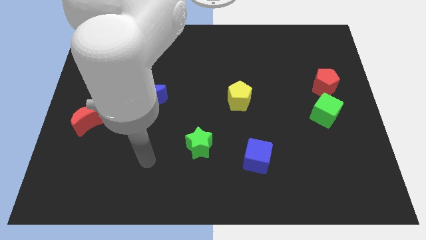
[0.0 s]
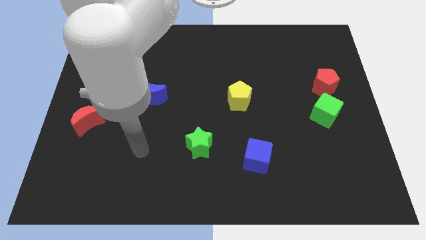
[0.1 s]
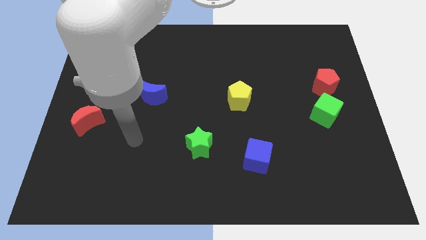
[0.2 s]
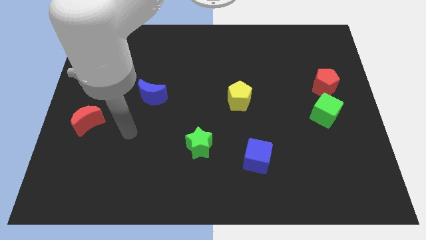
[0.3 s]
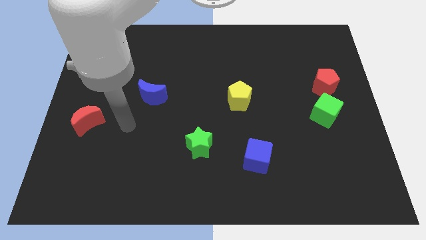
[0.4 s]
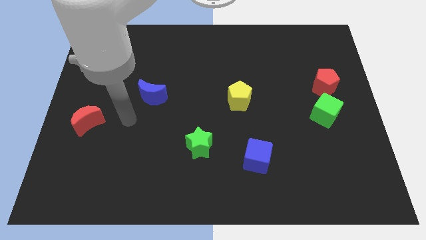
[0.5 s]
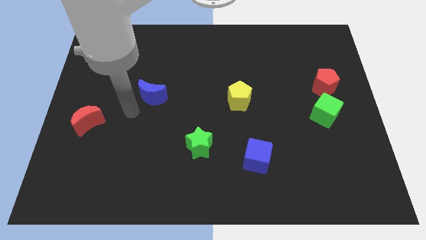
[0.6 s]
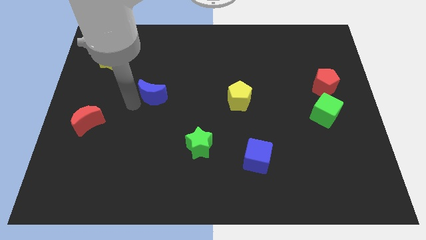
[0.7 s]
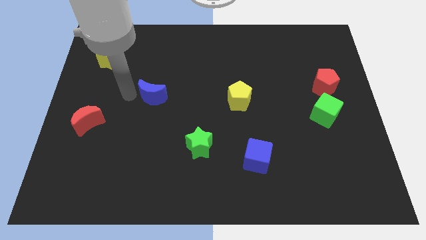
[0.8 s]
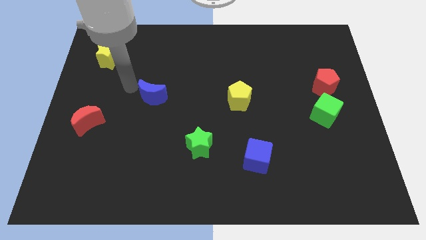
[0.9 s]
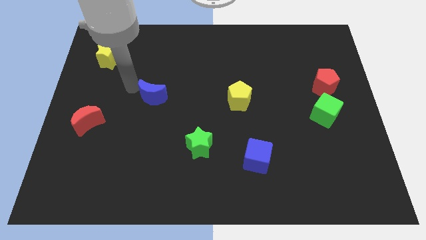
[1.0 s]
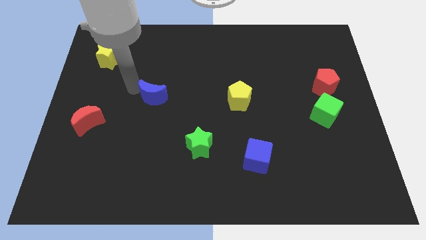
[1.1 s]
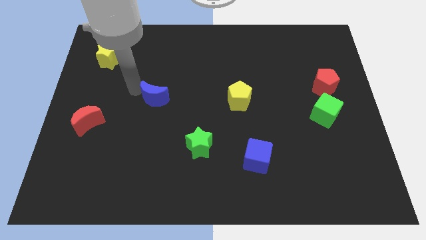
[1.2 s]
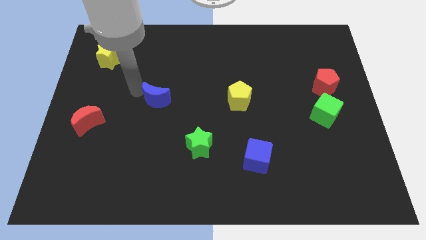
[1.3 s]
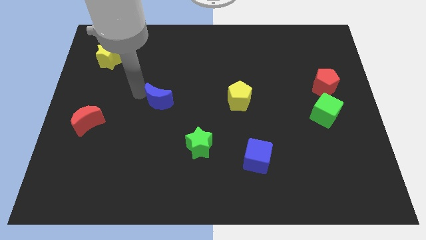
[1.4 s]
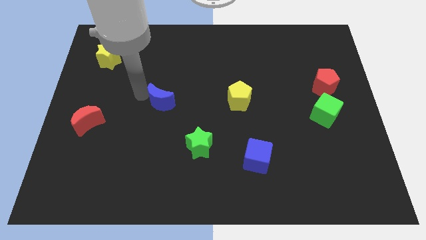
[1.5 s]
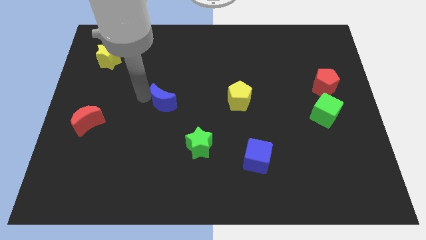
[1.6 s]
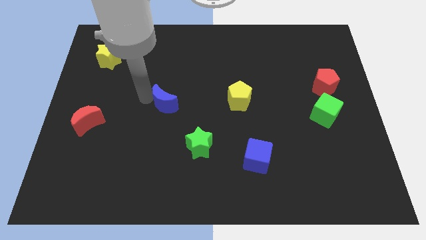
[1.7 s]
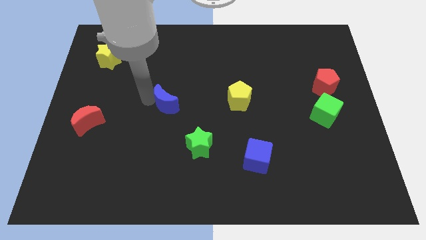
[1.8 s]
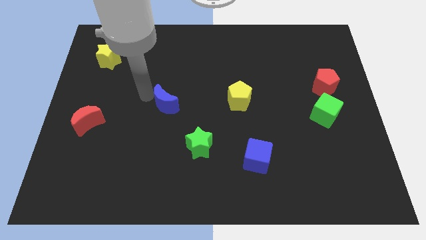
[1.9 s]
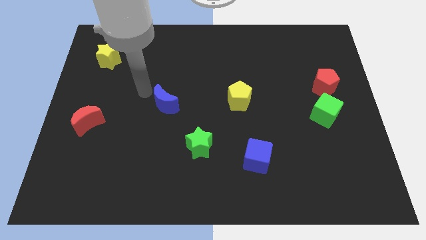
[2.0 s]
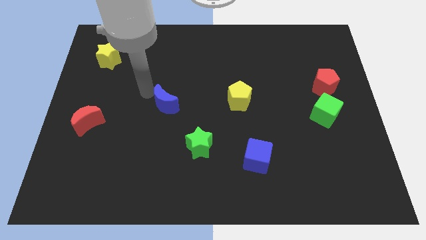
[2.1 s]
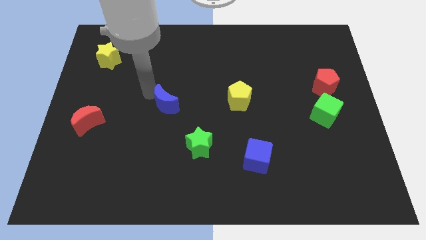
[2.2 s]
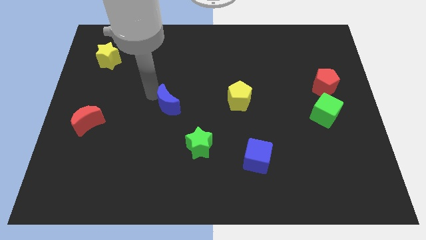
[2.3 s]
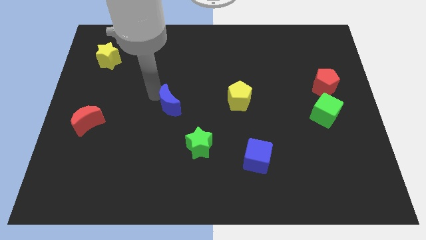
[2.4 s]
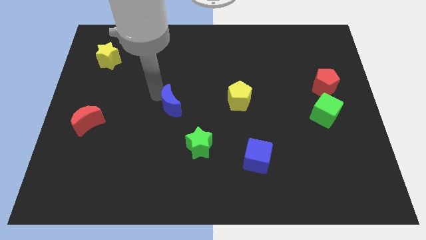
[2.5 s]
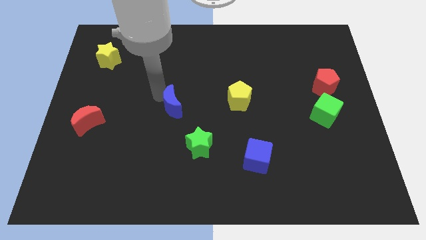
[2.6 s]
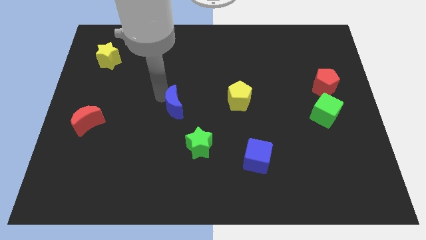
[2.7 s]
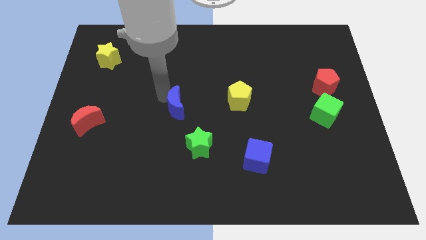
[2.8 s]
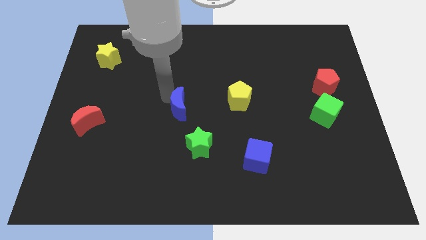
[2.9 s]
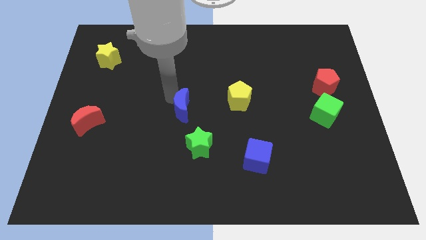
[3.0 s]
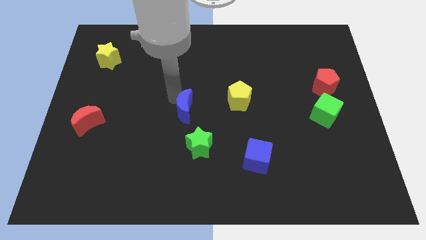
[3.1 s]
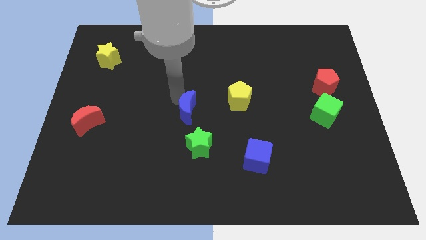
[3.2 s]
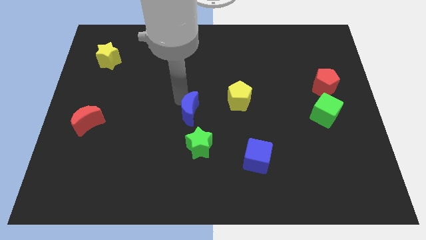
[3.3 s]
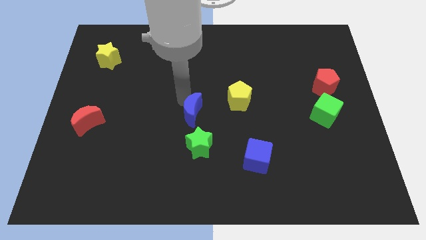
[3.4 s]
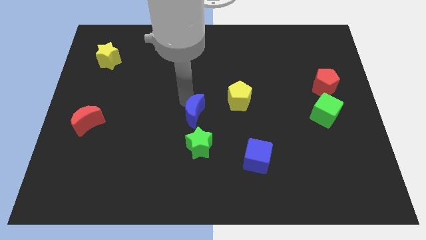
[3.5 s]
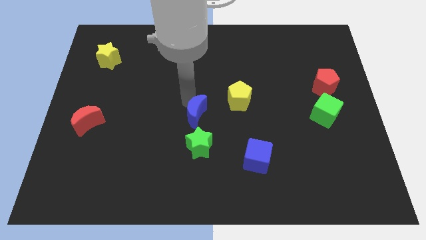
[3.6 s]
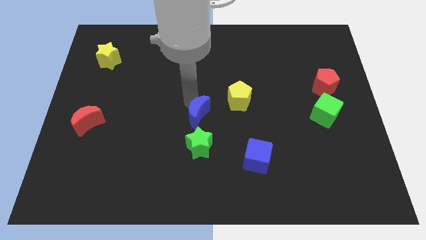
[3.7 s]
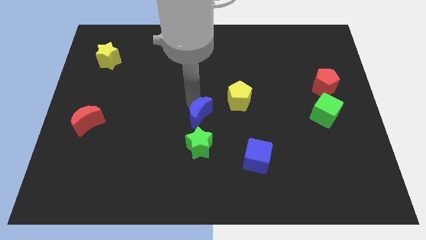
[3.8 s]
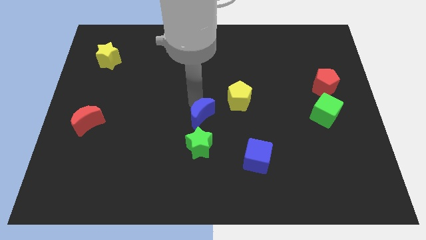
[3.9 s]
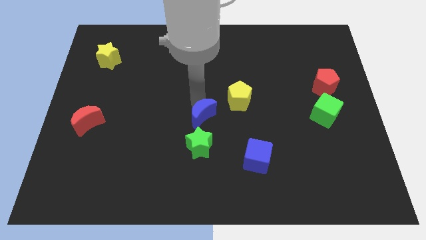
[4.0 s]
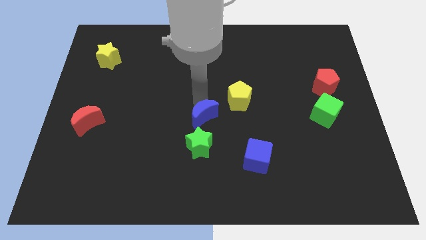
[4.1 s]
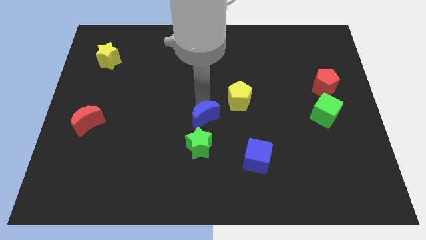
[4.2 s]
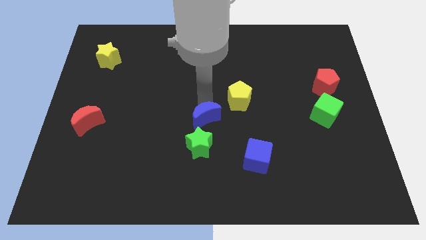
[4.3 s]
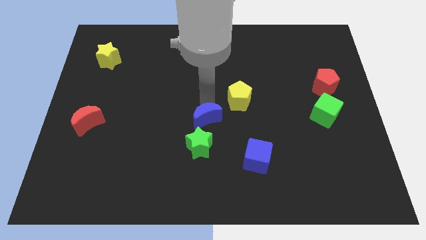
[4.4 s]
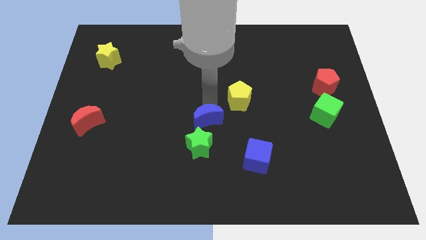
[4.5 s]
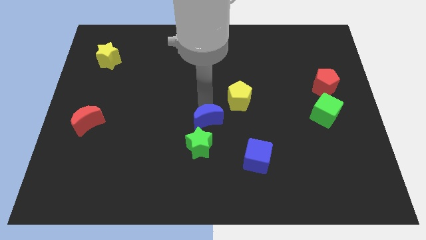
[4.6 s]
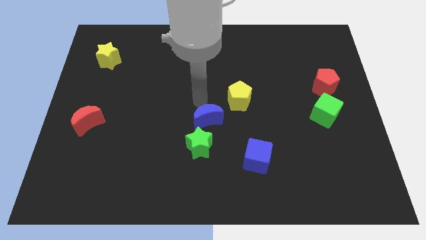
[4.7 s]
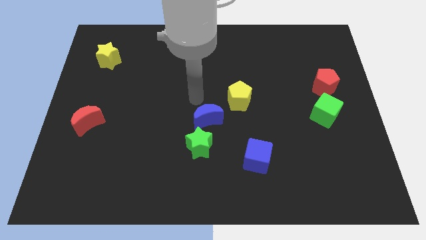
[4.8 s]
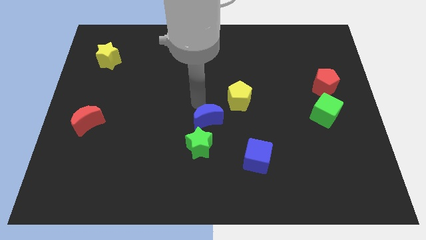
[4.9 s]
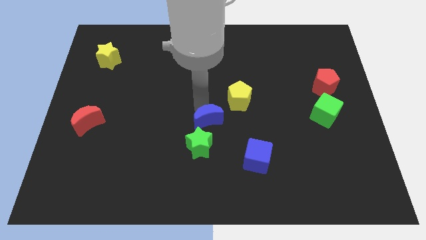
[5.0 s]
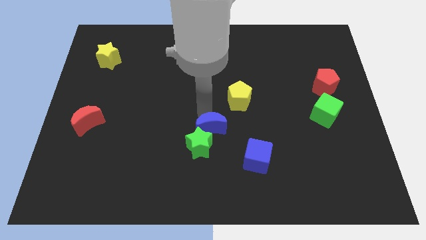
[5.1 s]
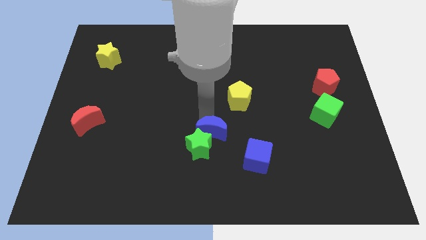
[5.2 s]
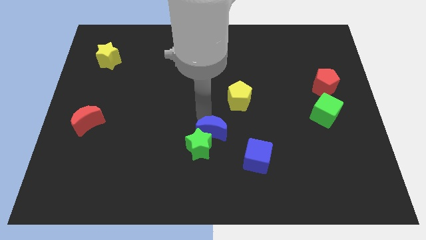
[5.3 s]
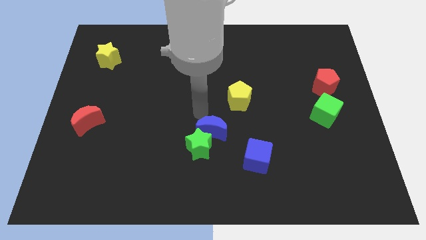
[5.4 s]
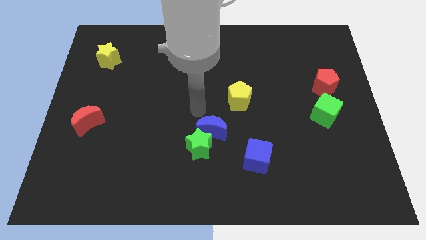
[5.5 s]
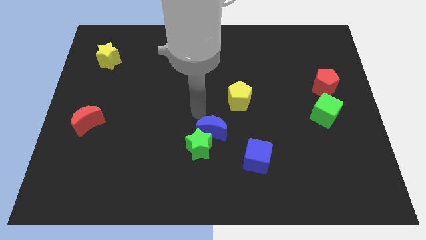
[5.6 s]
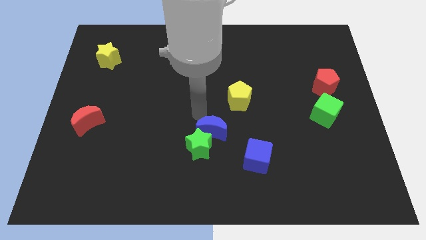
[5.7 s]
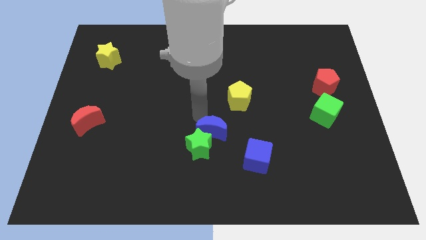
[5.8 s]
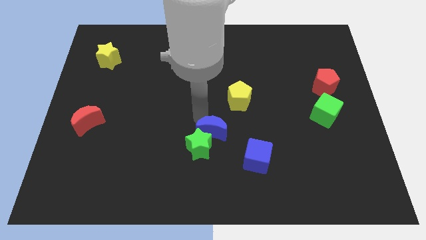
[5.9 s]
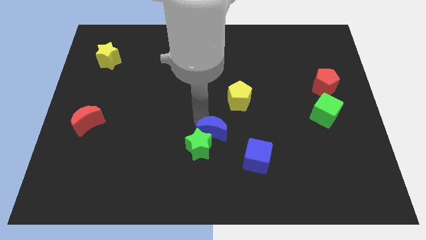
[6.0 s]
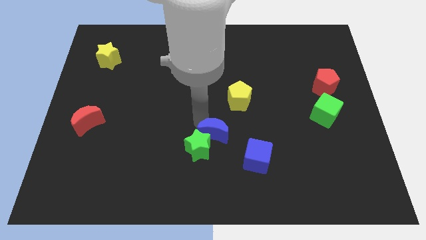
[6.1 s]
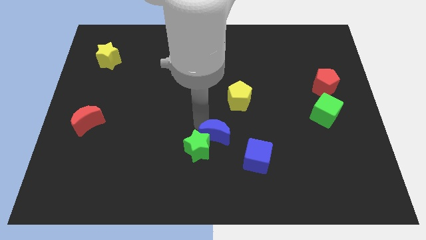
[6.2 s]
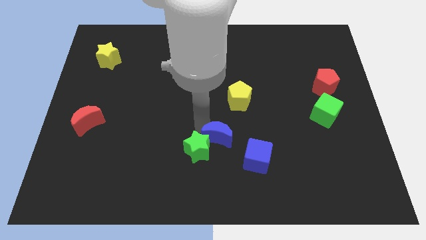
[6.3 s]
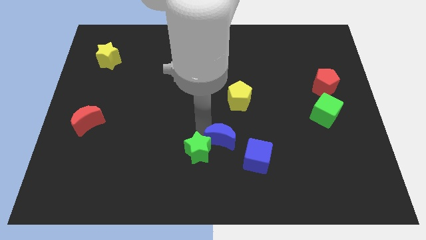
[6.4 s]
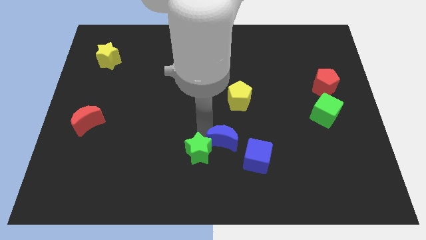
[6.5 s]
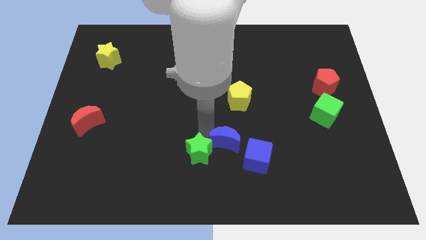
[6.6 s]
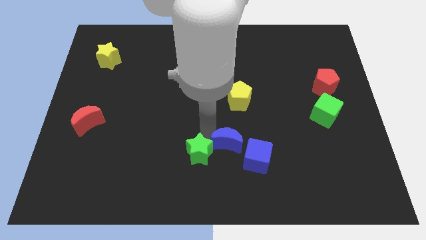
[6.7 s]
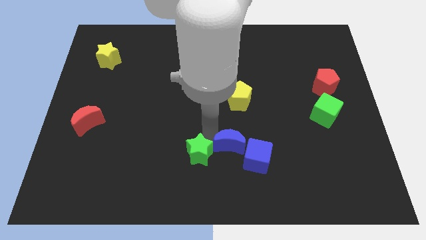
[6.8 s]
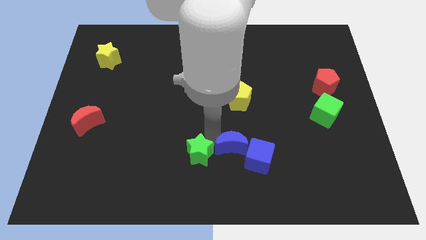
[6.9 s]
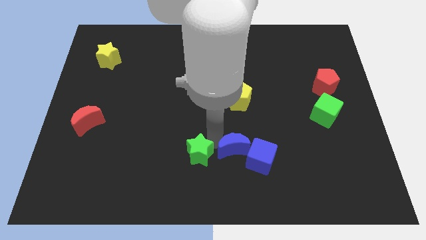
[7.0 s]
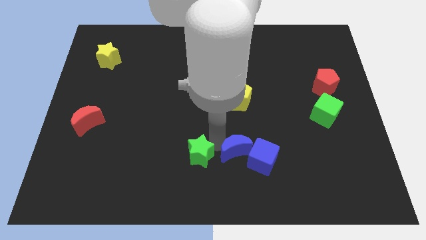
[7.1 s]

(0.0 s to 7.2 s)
slide the blue moon close to the blue cube

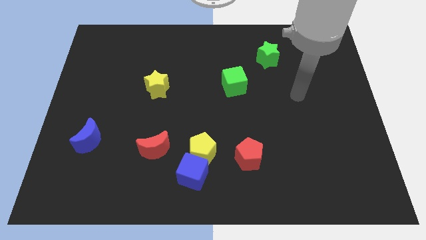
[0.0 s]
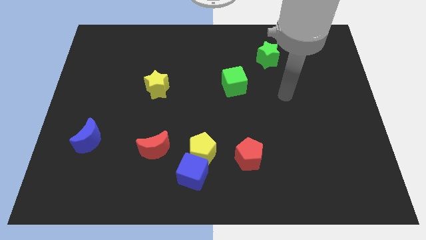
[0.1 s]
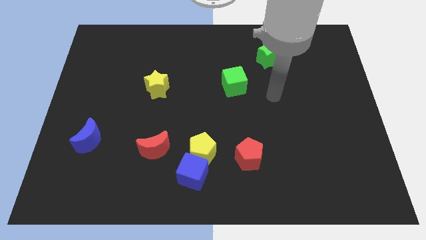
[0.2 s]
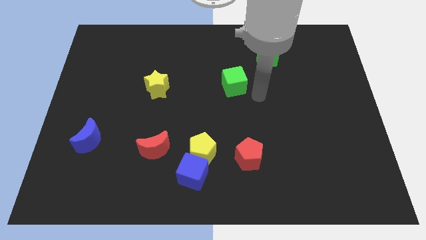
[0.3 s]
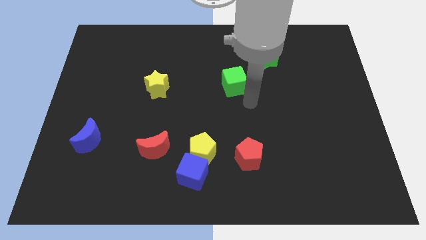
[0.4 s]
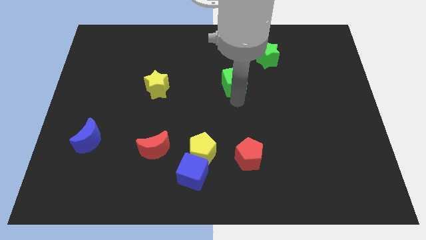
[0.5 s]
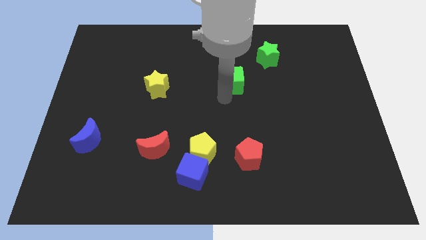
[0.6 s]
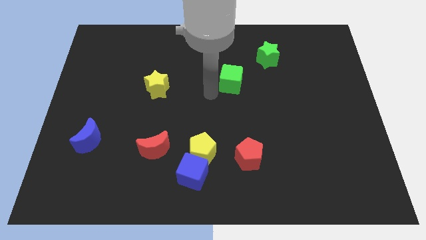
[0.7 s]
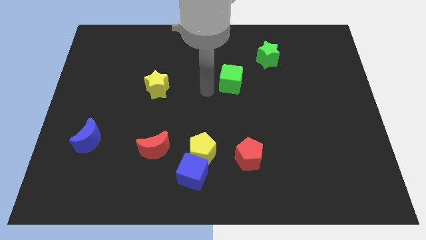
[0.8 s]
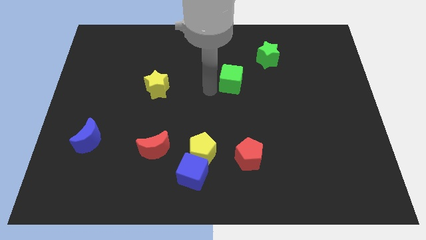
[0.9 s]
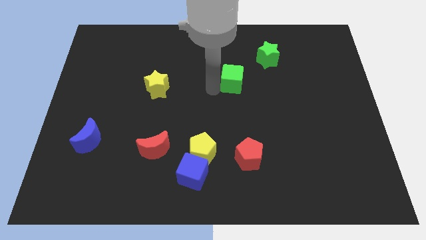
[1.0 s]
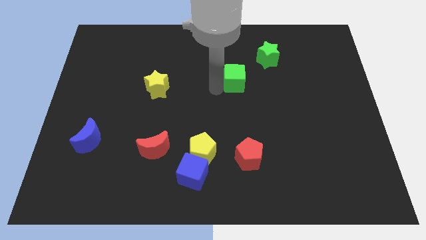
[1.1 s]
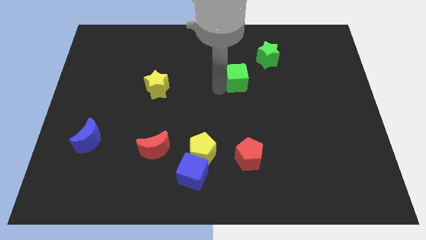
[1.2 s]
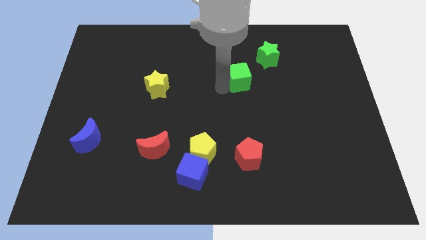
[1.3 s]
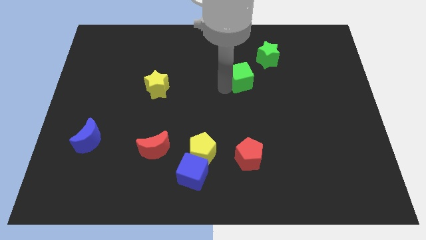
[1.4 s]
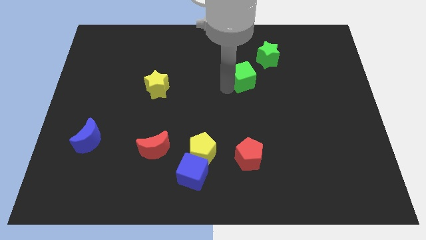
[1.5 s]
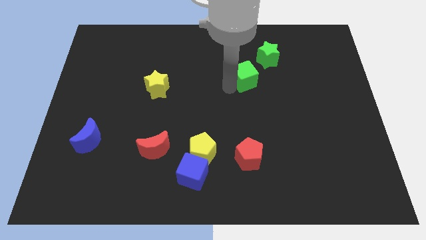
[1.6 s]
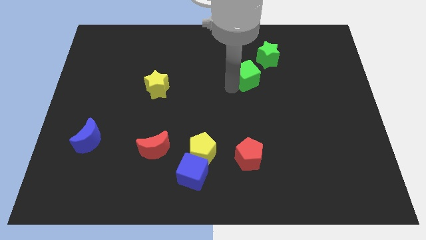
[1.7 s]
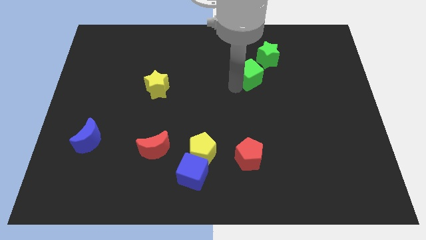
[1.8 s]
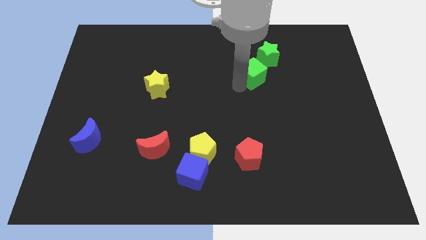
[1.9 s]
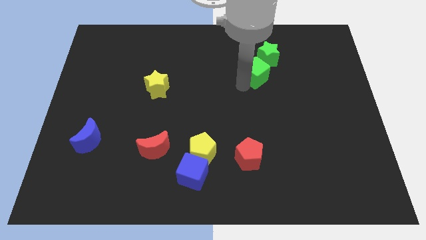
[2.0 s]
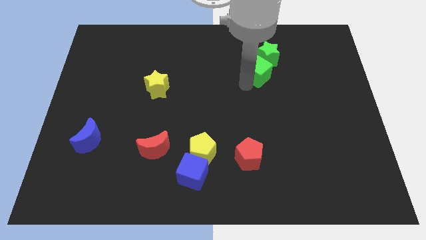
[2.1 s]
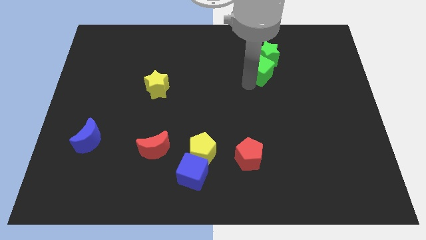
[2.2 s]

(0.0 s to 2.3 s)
push the green cube close to the green star
